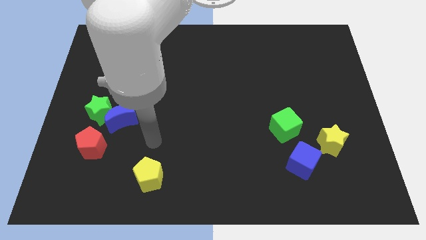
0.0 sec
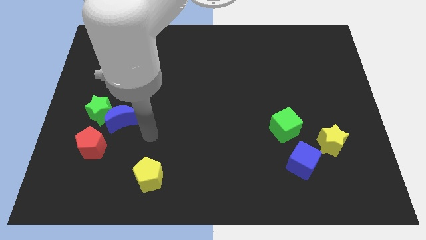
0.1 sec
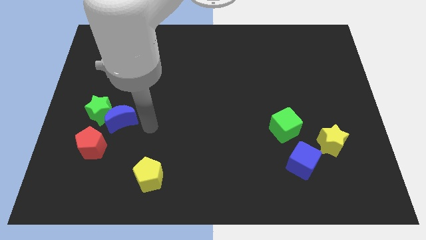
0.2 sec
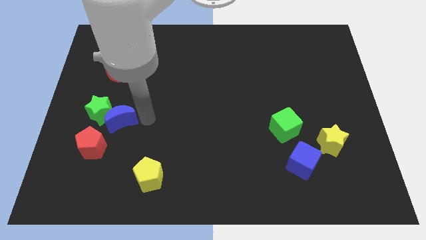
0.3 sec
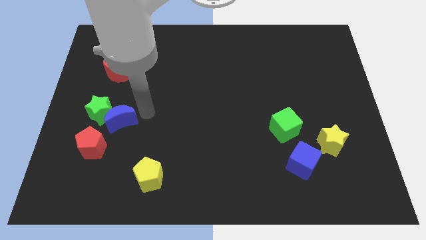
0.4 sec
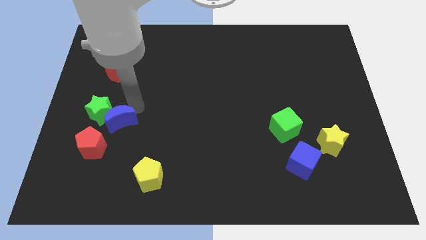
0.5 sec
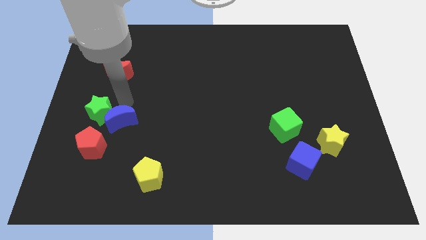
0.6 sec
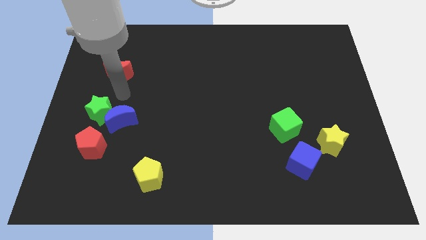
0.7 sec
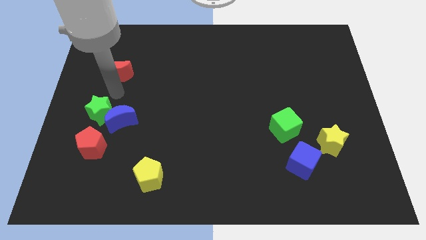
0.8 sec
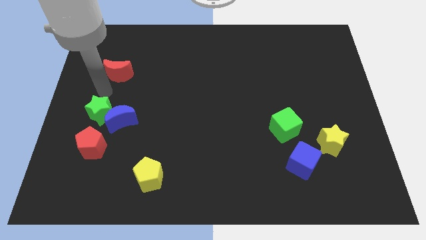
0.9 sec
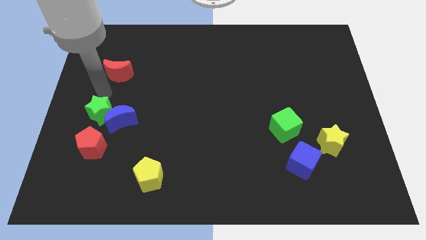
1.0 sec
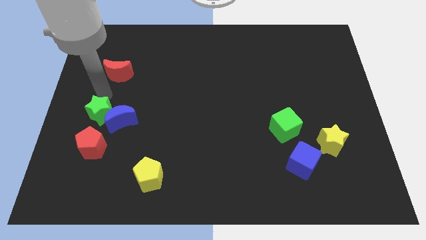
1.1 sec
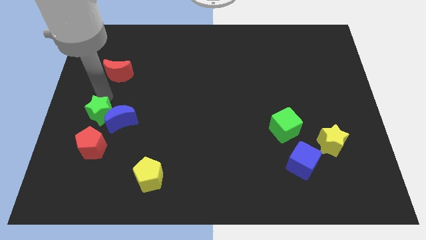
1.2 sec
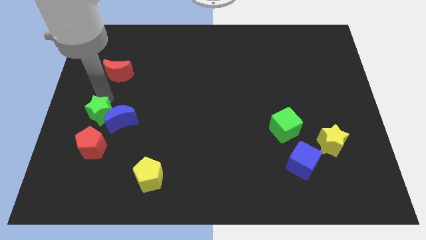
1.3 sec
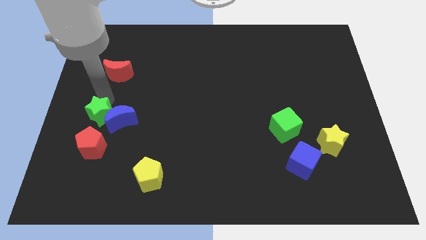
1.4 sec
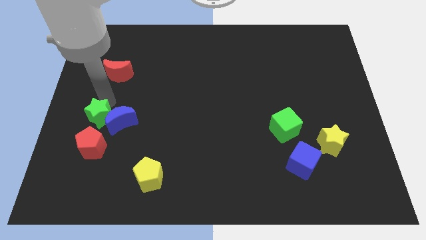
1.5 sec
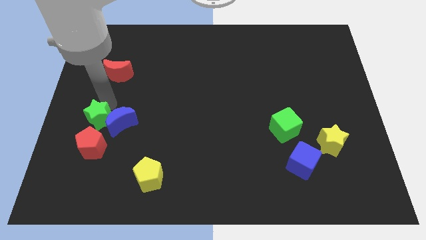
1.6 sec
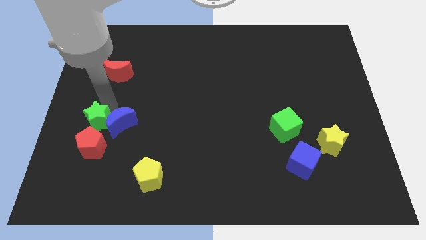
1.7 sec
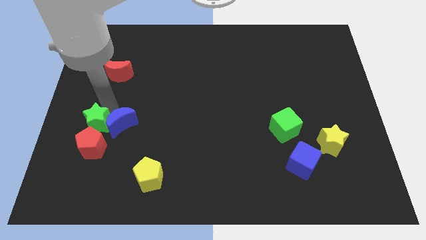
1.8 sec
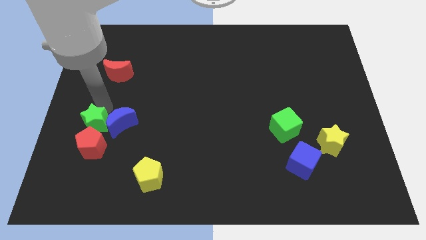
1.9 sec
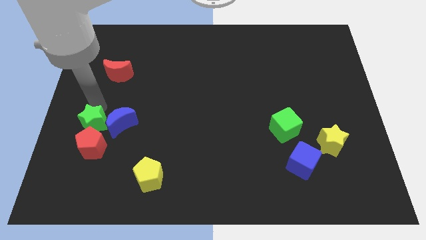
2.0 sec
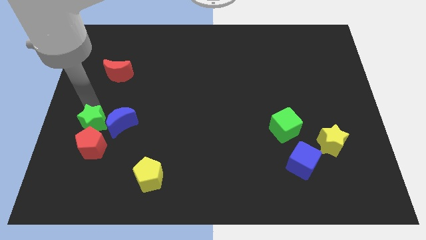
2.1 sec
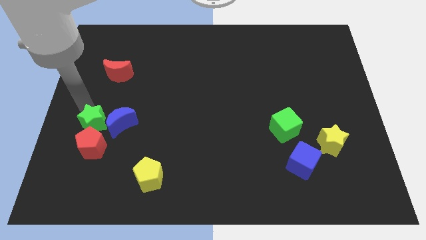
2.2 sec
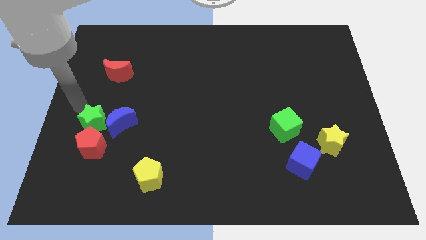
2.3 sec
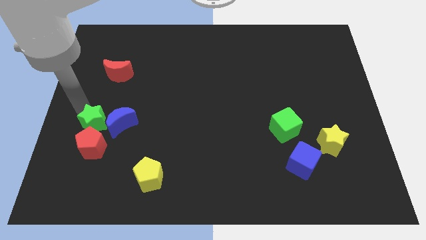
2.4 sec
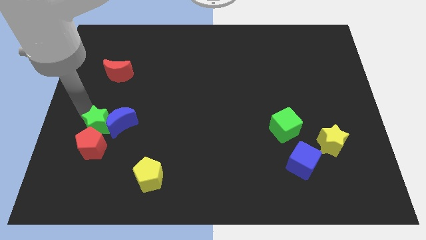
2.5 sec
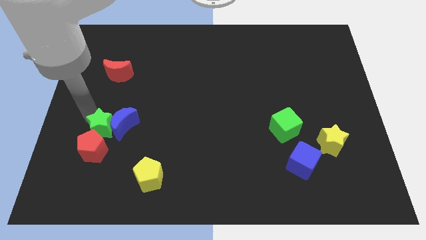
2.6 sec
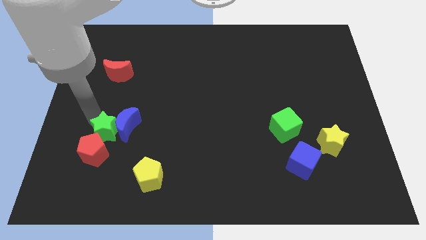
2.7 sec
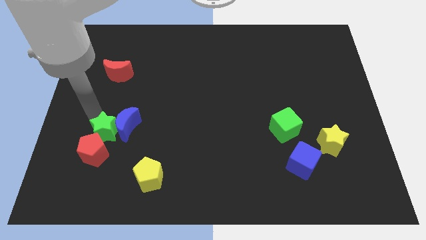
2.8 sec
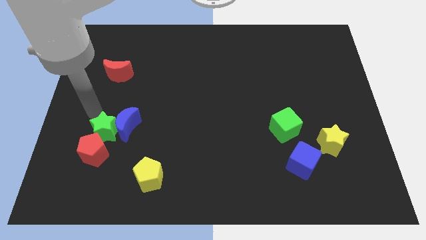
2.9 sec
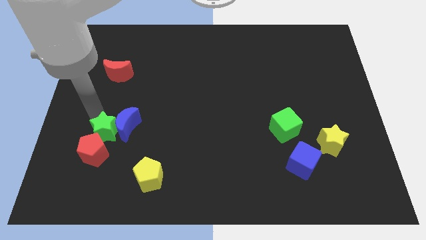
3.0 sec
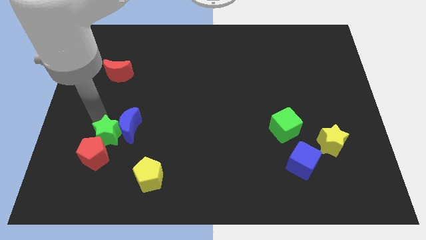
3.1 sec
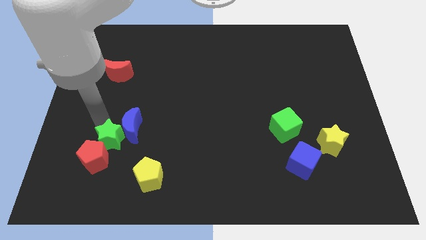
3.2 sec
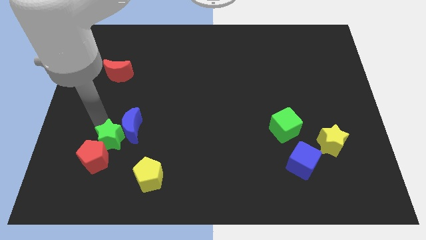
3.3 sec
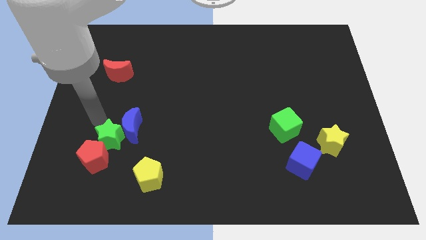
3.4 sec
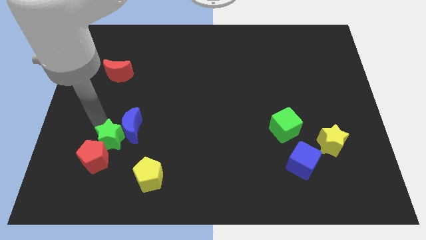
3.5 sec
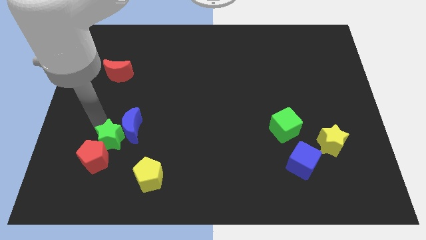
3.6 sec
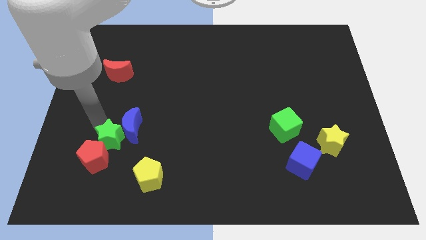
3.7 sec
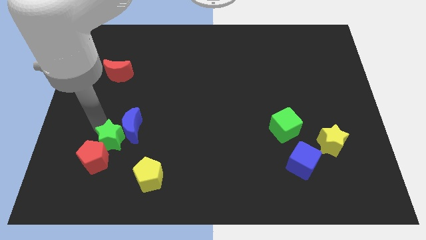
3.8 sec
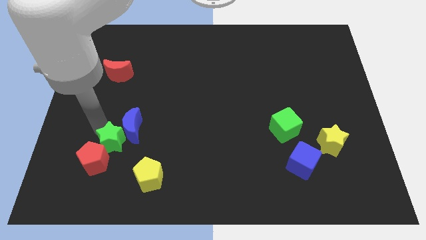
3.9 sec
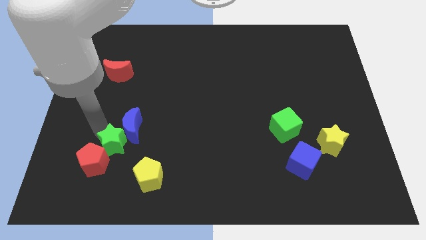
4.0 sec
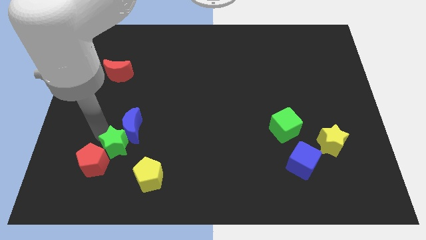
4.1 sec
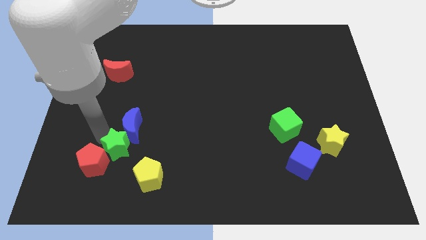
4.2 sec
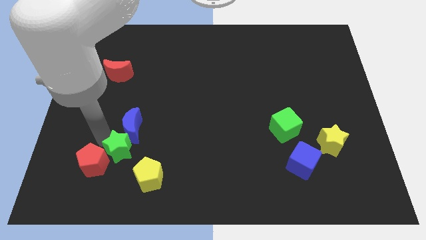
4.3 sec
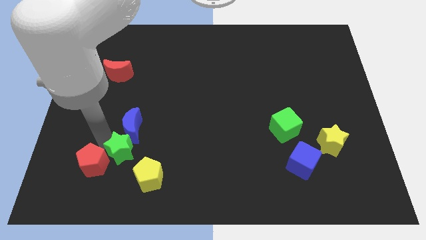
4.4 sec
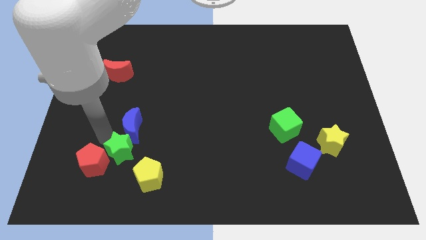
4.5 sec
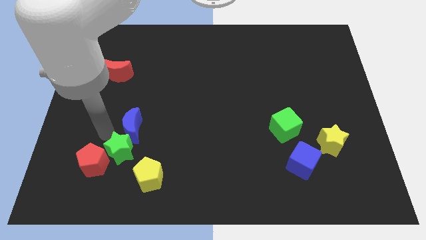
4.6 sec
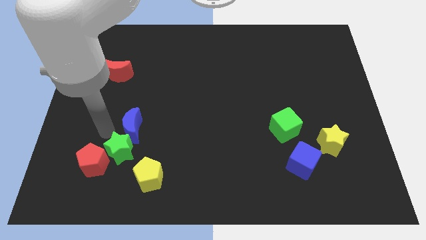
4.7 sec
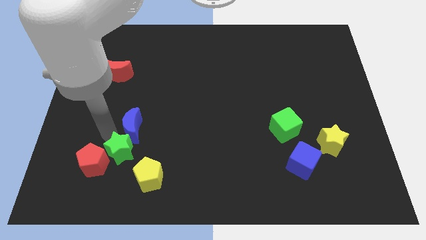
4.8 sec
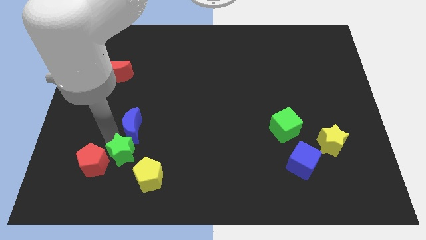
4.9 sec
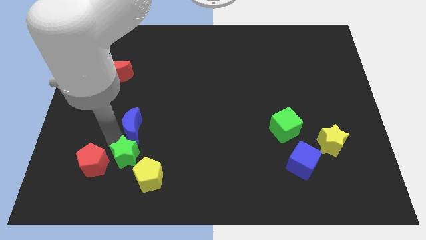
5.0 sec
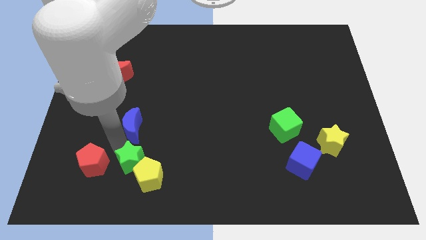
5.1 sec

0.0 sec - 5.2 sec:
slide the green star next to the yellow pentagon
